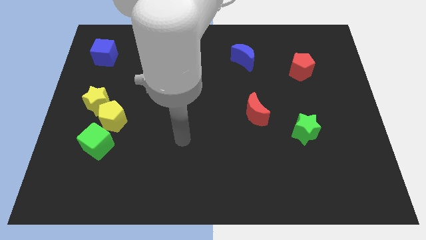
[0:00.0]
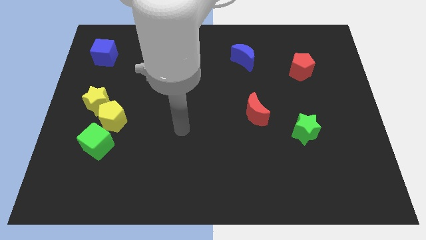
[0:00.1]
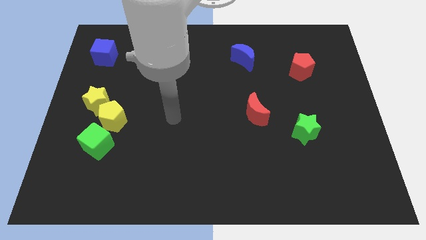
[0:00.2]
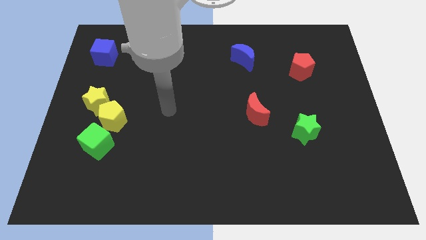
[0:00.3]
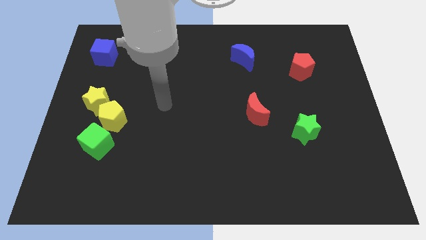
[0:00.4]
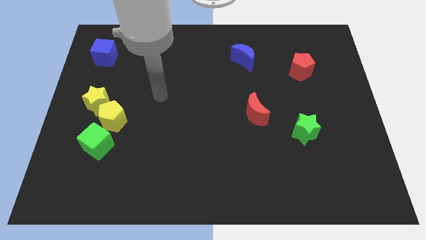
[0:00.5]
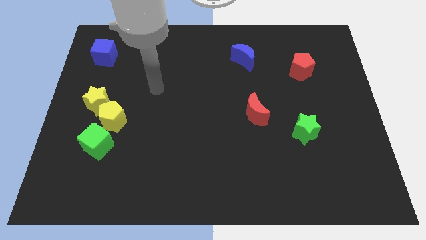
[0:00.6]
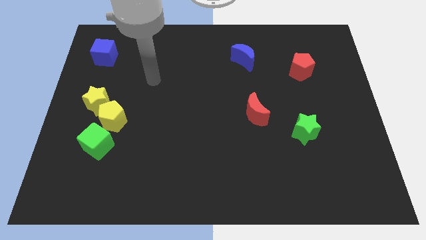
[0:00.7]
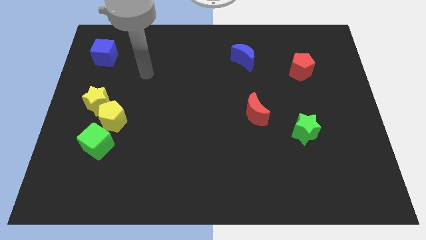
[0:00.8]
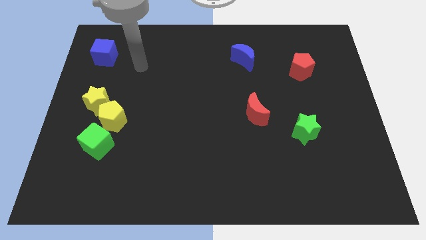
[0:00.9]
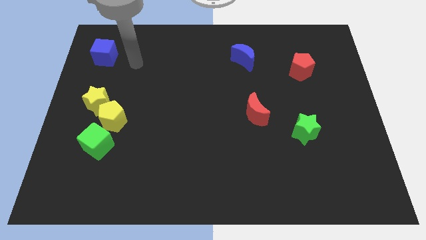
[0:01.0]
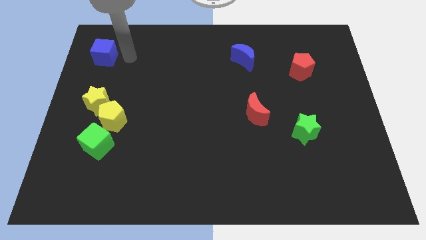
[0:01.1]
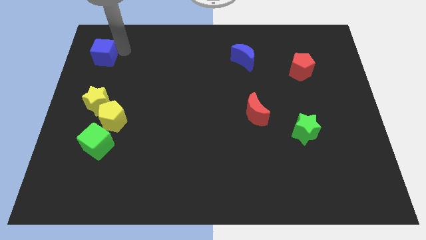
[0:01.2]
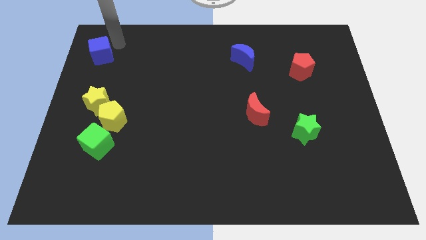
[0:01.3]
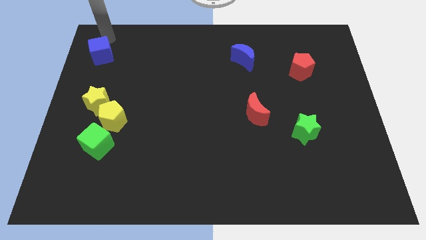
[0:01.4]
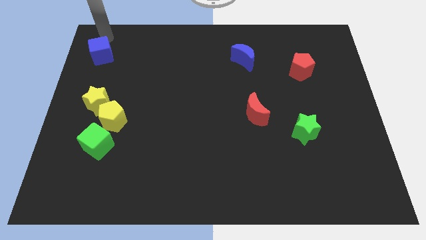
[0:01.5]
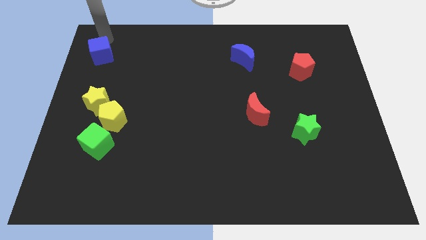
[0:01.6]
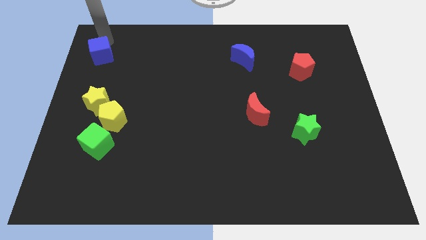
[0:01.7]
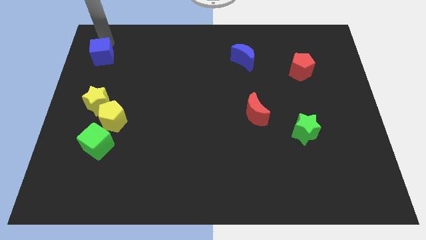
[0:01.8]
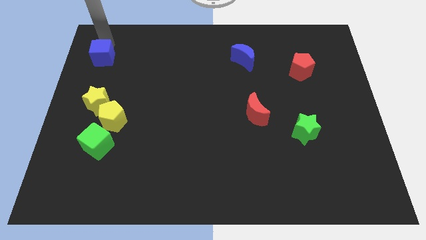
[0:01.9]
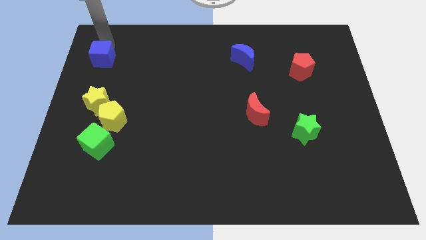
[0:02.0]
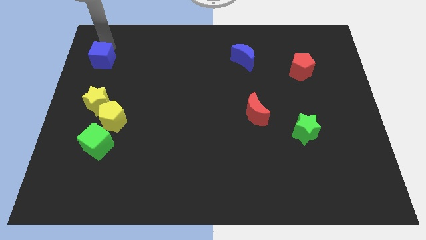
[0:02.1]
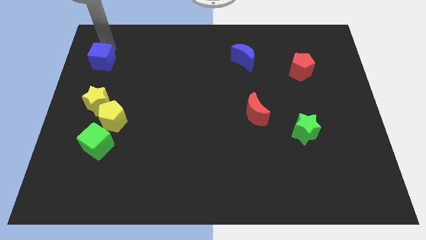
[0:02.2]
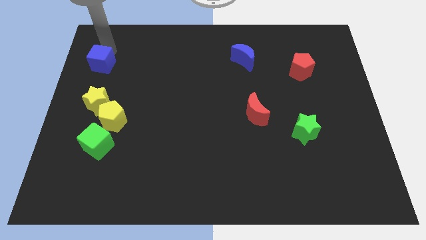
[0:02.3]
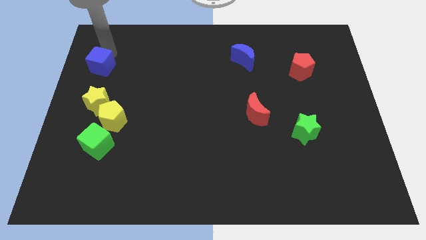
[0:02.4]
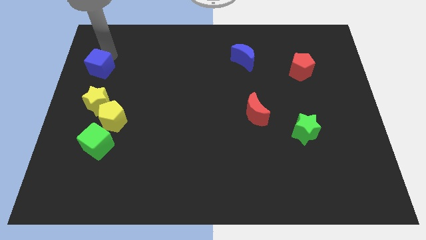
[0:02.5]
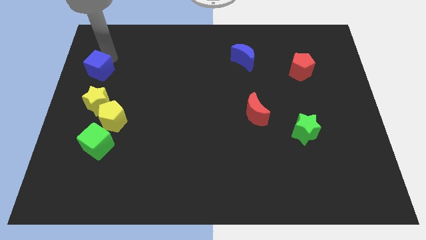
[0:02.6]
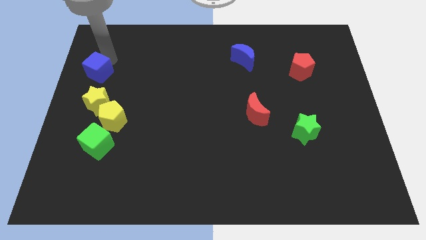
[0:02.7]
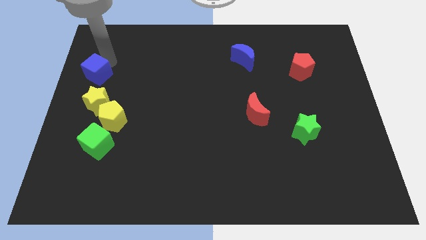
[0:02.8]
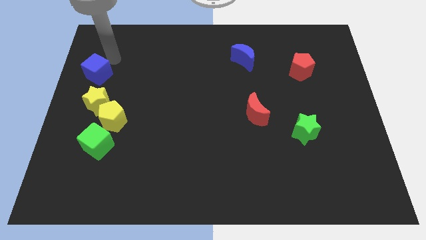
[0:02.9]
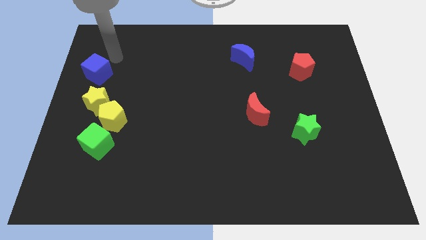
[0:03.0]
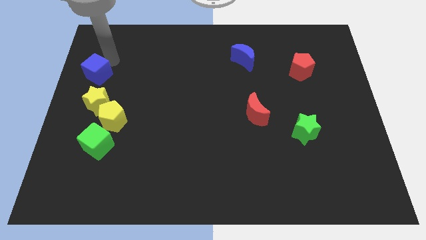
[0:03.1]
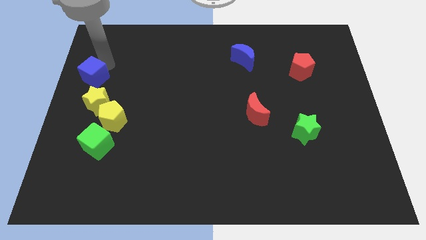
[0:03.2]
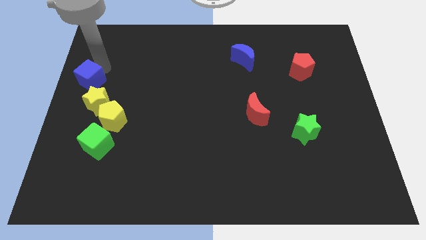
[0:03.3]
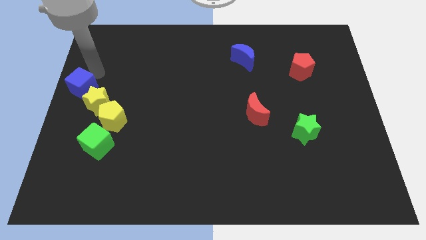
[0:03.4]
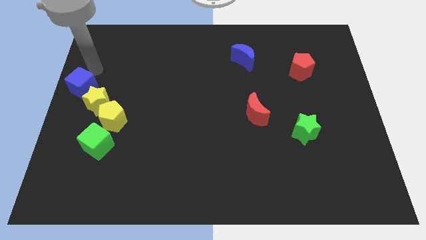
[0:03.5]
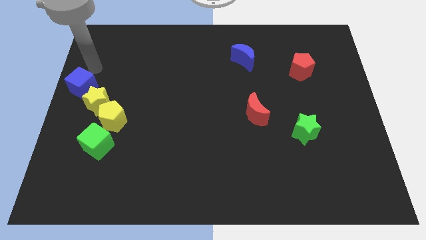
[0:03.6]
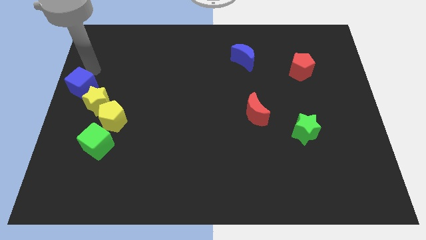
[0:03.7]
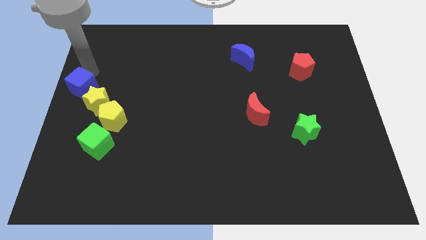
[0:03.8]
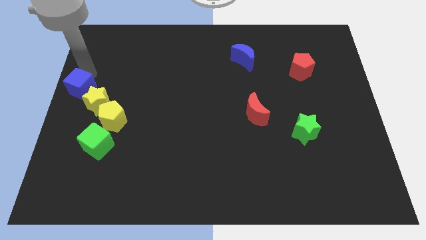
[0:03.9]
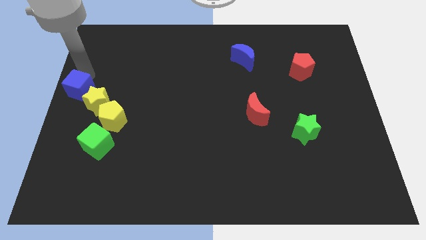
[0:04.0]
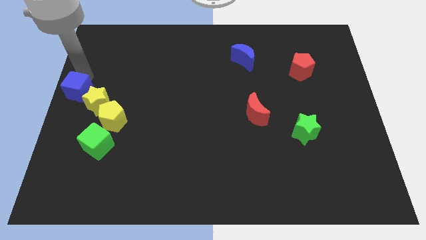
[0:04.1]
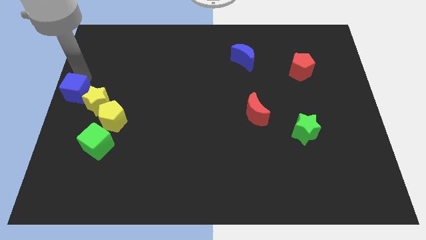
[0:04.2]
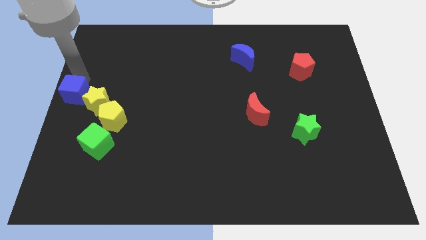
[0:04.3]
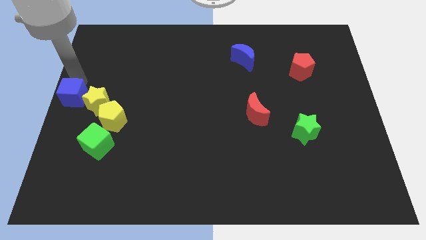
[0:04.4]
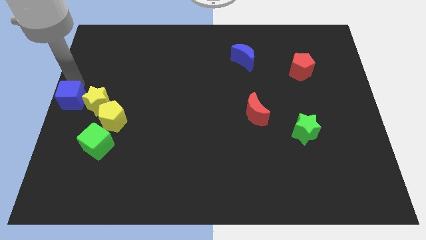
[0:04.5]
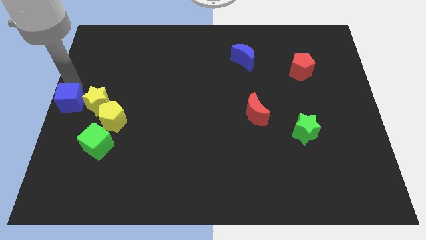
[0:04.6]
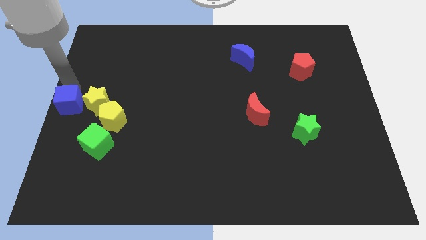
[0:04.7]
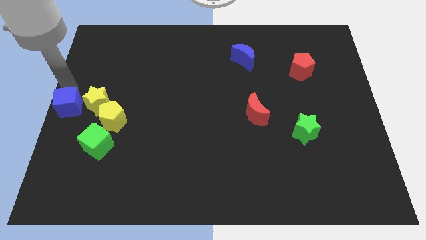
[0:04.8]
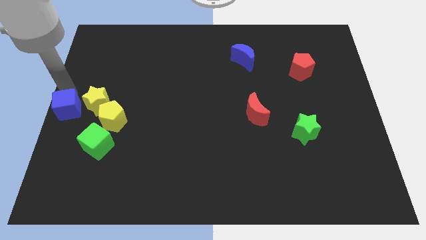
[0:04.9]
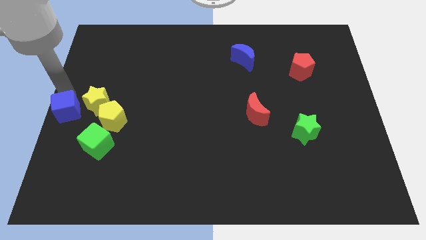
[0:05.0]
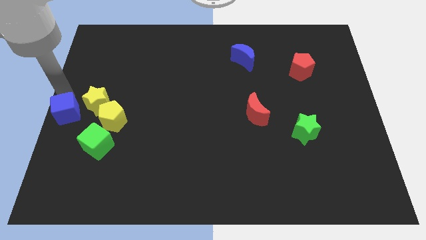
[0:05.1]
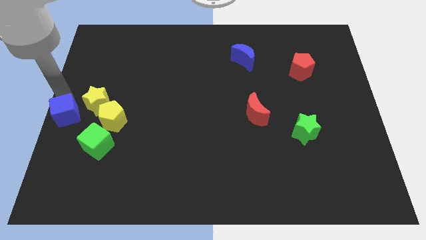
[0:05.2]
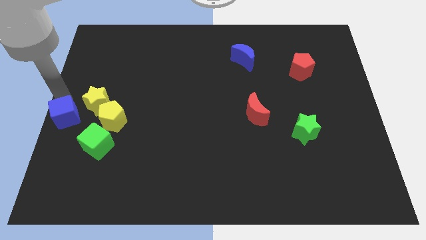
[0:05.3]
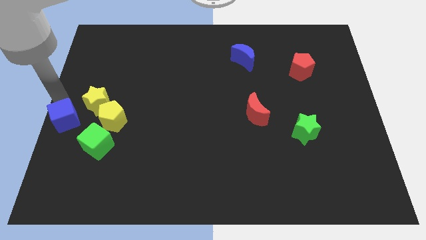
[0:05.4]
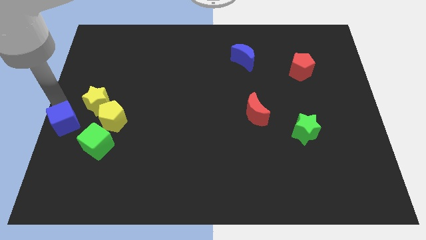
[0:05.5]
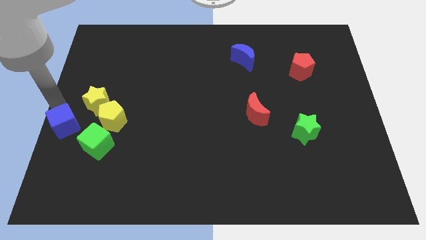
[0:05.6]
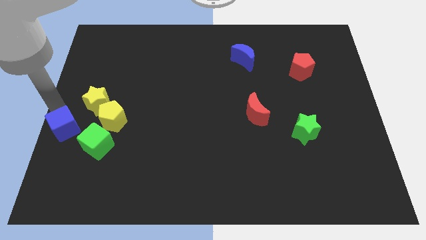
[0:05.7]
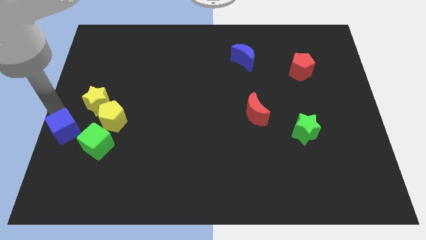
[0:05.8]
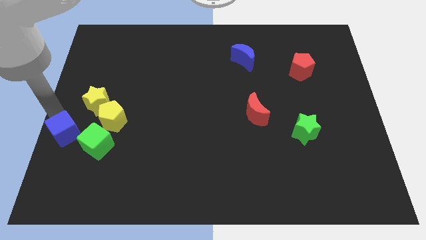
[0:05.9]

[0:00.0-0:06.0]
slide the blue cube diagonally down and to the left of the yellow pentagon

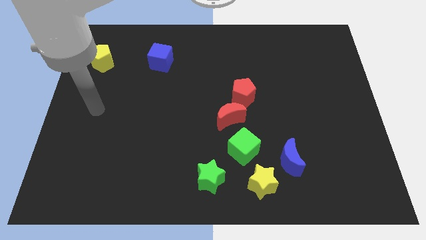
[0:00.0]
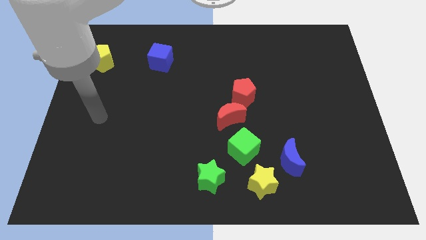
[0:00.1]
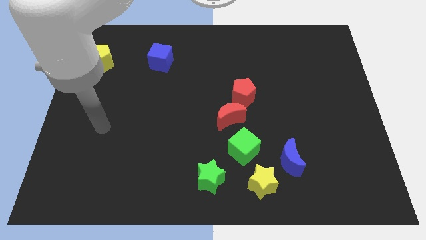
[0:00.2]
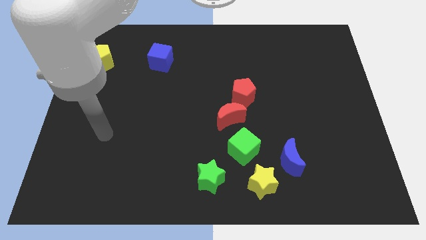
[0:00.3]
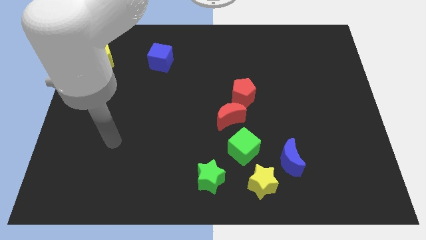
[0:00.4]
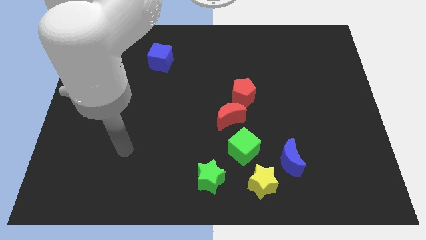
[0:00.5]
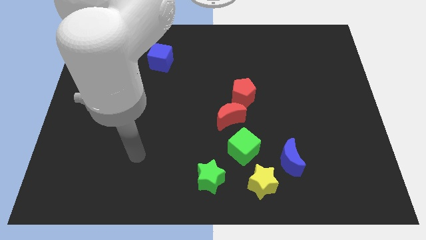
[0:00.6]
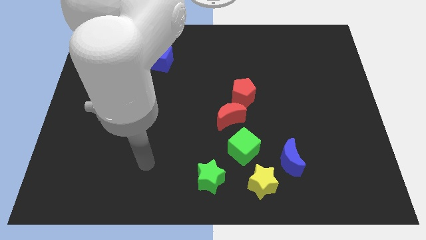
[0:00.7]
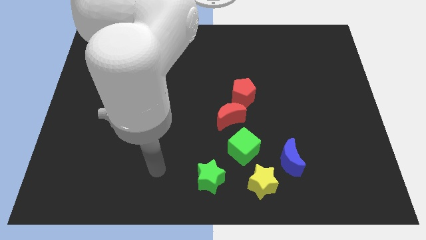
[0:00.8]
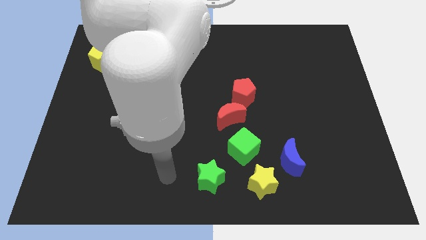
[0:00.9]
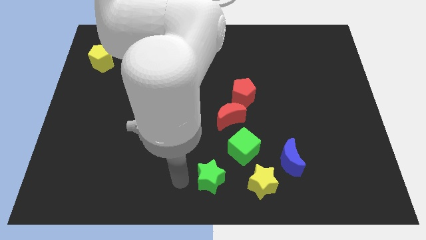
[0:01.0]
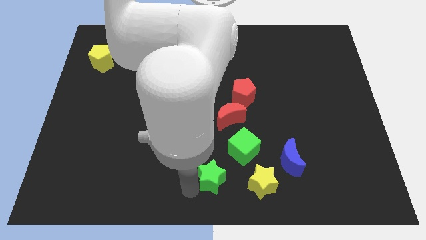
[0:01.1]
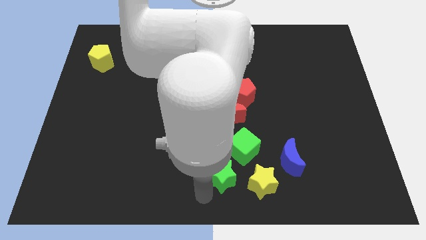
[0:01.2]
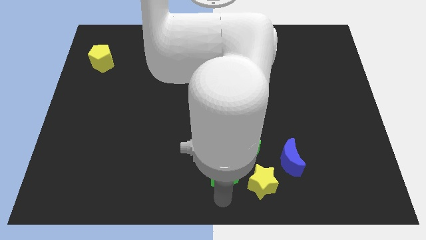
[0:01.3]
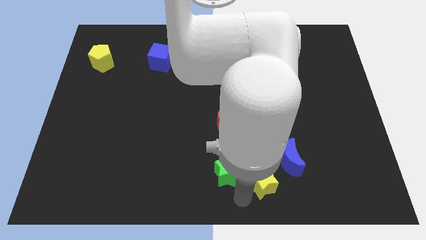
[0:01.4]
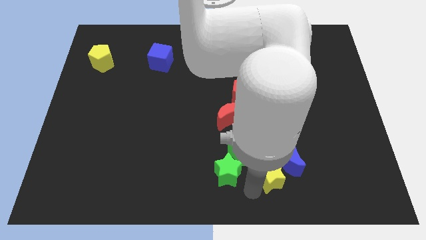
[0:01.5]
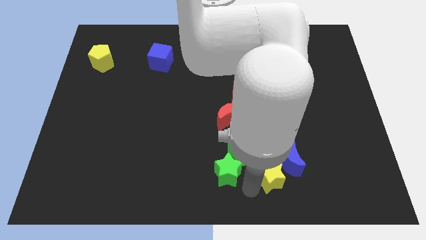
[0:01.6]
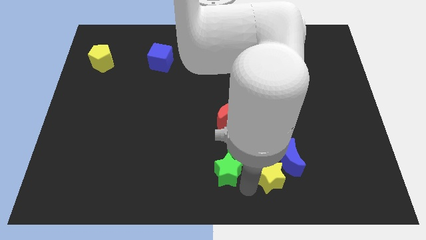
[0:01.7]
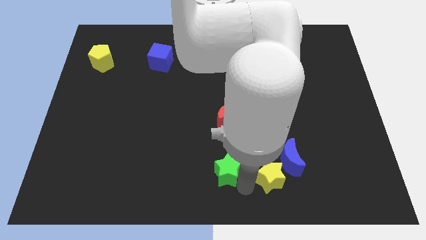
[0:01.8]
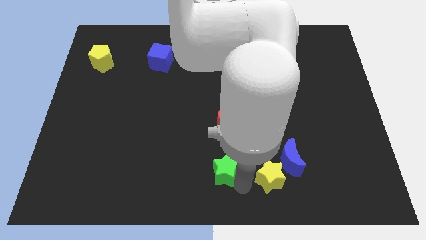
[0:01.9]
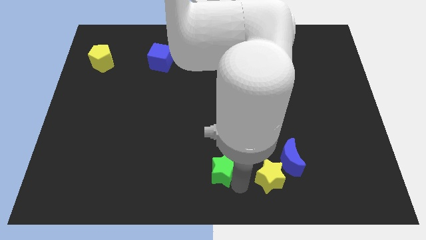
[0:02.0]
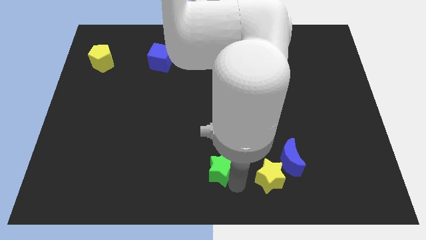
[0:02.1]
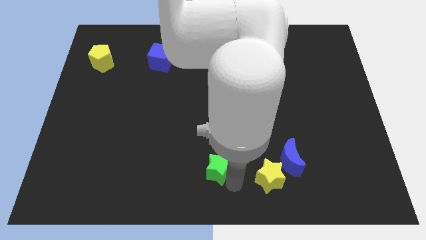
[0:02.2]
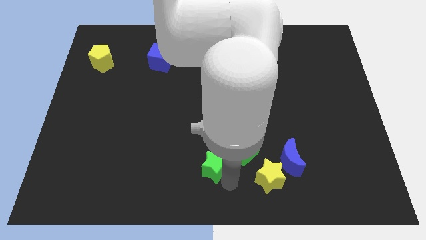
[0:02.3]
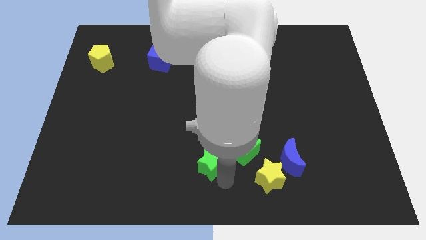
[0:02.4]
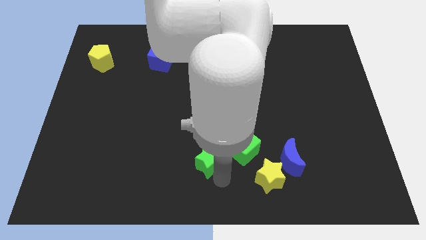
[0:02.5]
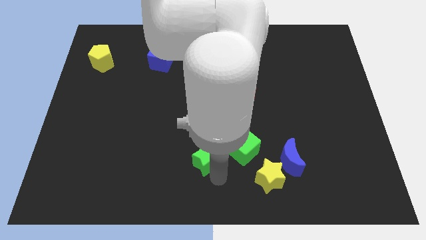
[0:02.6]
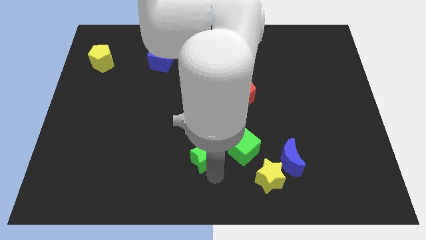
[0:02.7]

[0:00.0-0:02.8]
push the green star diagonally down and to the left of the red moon
